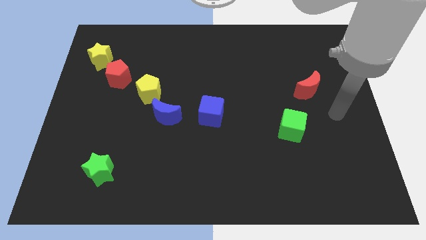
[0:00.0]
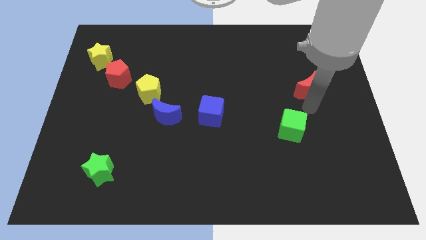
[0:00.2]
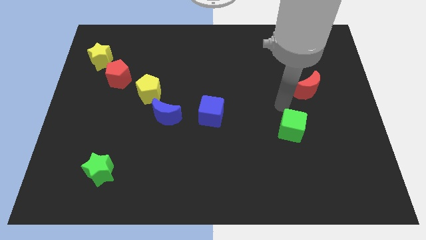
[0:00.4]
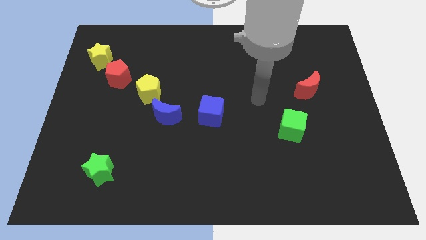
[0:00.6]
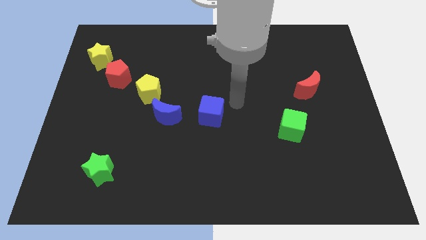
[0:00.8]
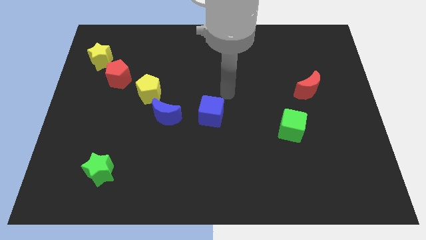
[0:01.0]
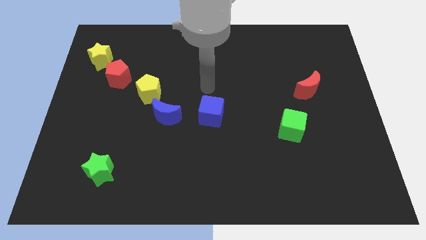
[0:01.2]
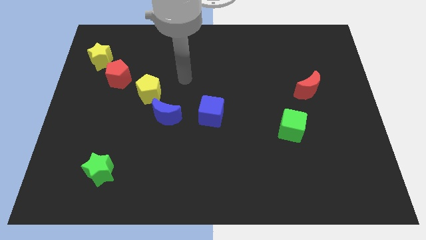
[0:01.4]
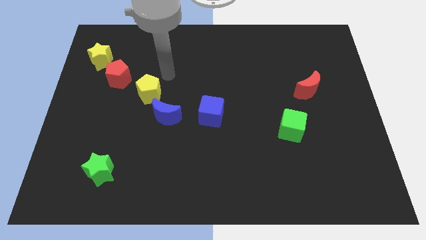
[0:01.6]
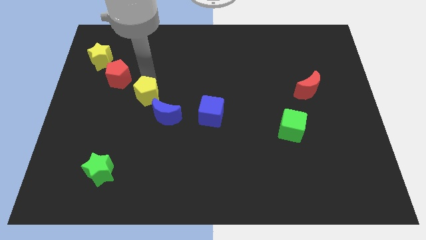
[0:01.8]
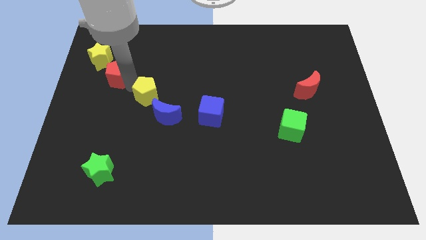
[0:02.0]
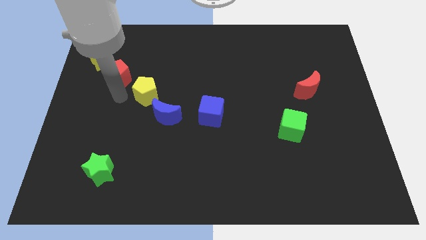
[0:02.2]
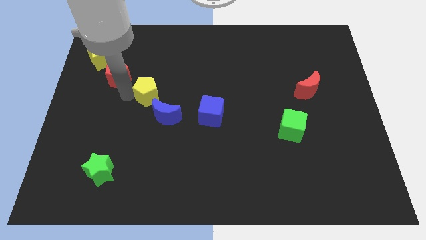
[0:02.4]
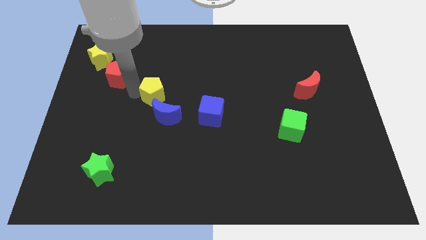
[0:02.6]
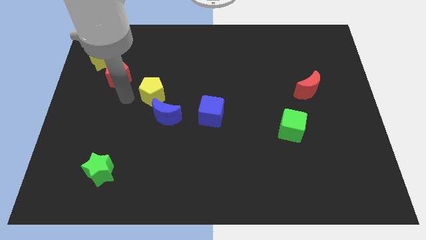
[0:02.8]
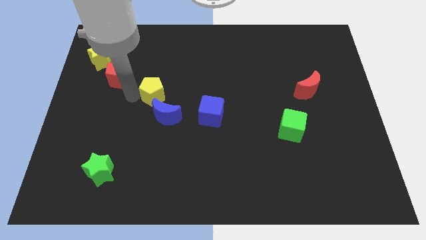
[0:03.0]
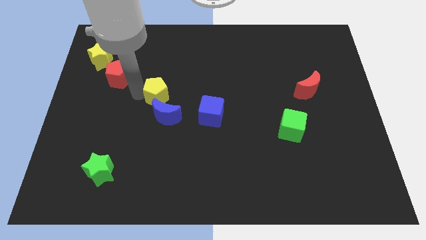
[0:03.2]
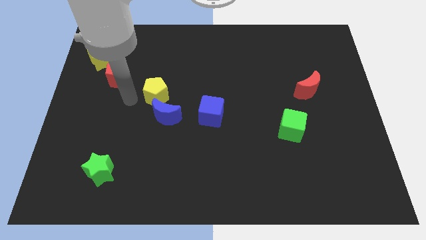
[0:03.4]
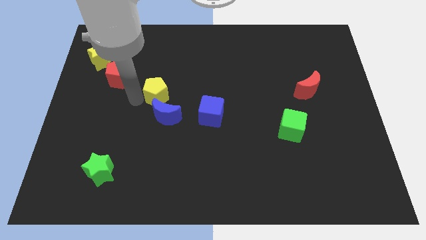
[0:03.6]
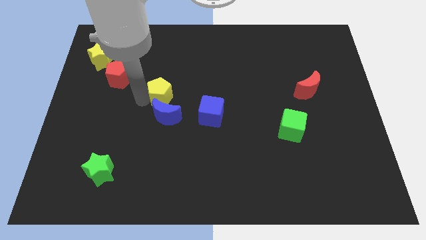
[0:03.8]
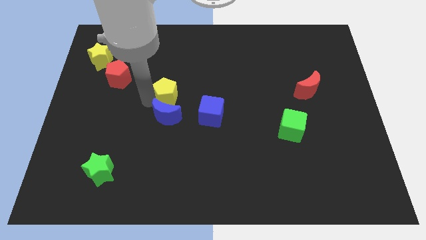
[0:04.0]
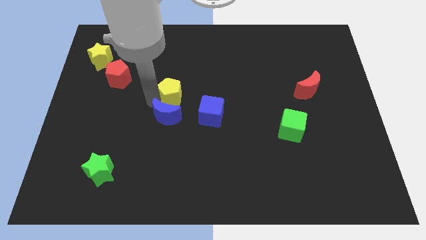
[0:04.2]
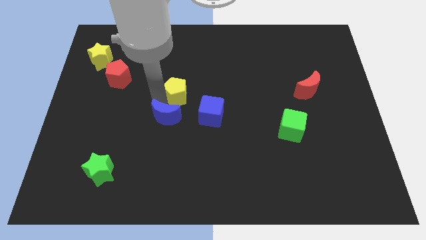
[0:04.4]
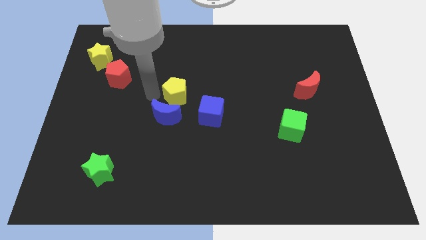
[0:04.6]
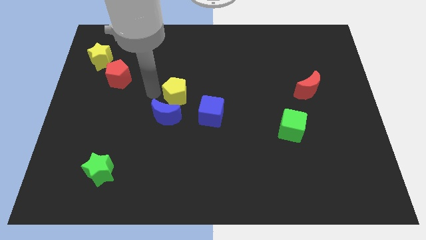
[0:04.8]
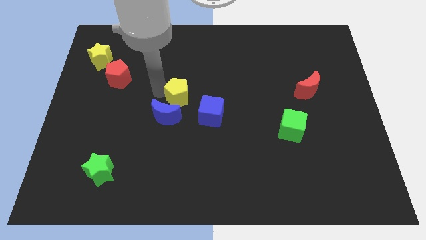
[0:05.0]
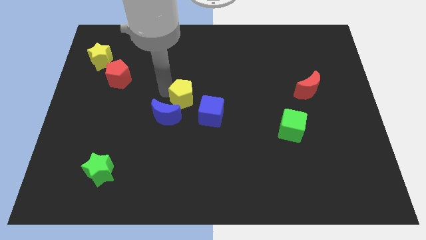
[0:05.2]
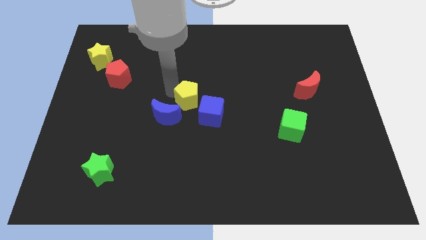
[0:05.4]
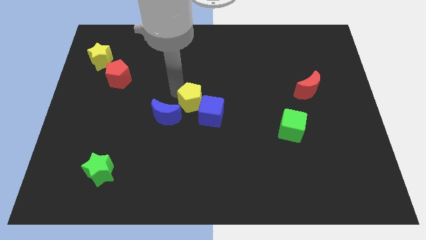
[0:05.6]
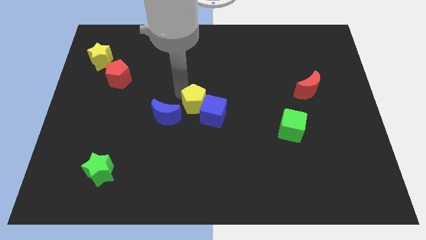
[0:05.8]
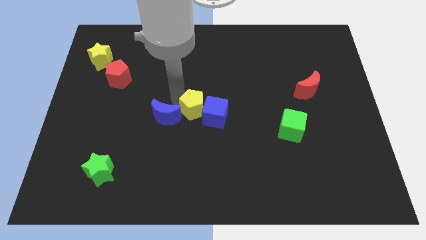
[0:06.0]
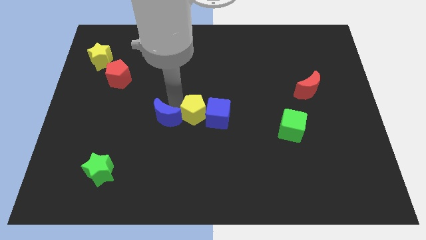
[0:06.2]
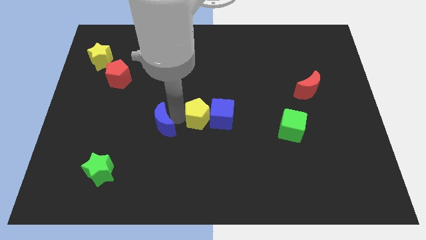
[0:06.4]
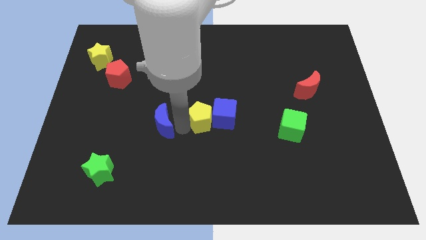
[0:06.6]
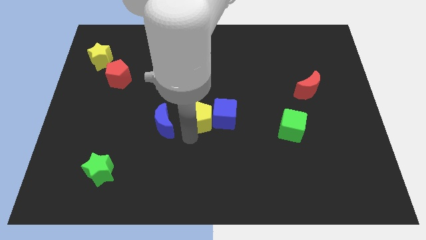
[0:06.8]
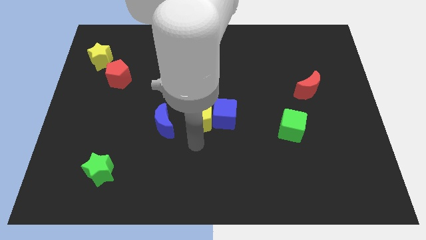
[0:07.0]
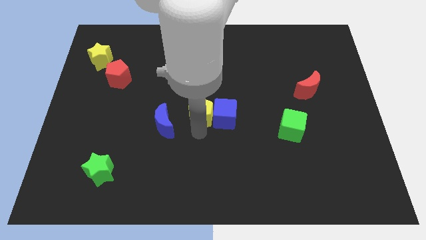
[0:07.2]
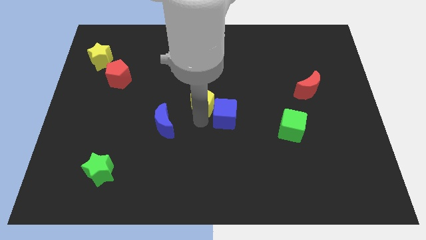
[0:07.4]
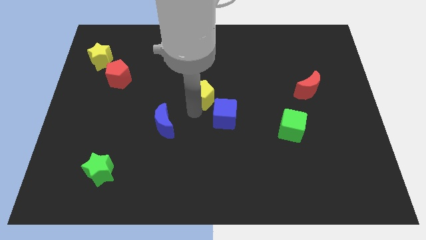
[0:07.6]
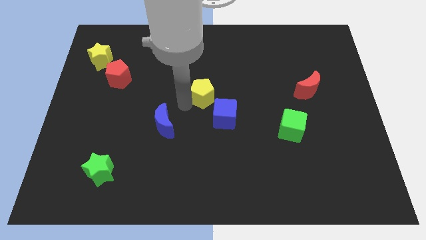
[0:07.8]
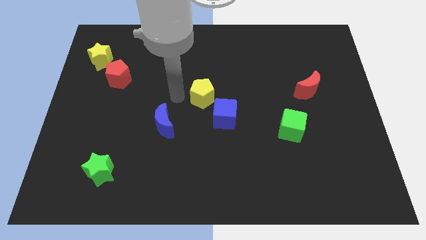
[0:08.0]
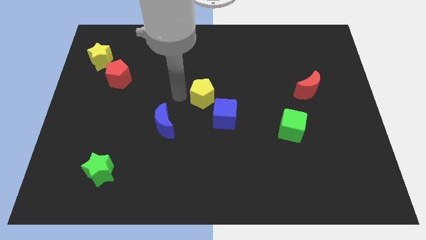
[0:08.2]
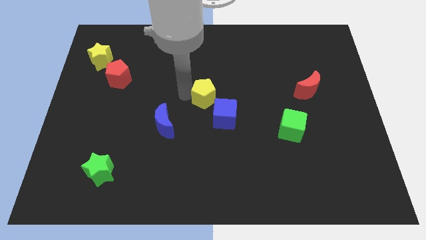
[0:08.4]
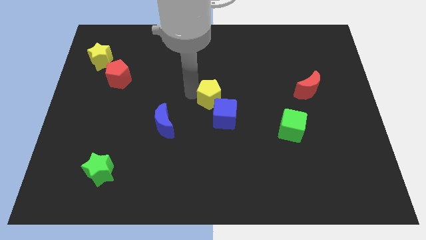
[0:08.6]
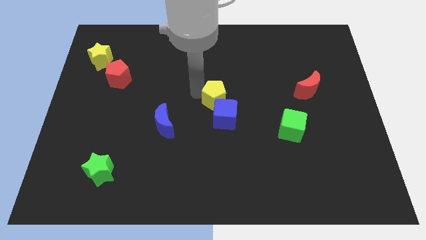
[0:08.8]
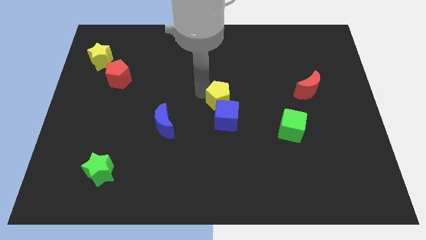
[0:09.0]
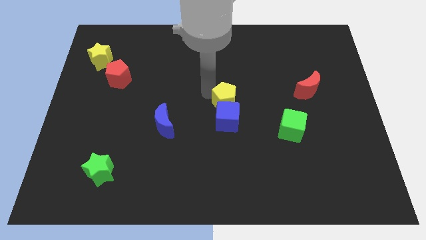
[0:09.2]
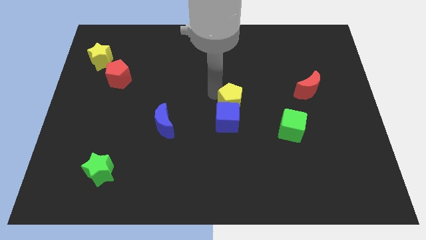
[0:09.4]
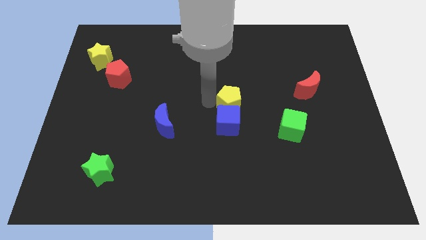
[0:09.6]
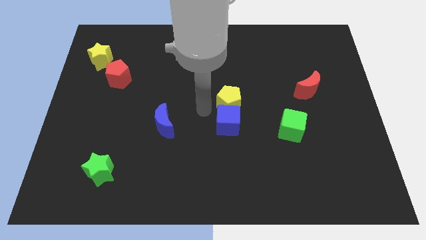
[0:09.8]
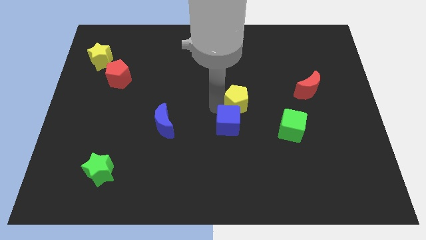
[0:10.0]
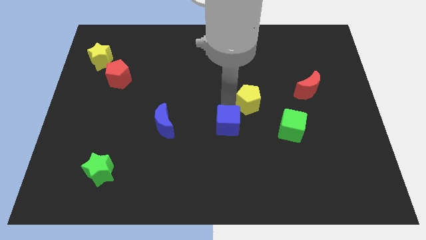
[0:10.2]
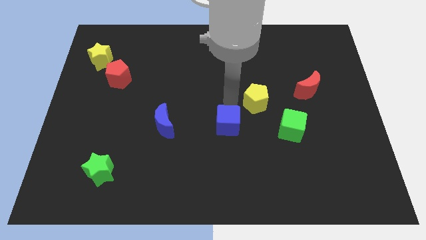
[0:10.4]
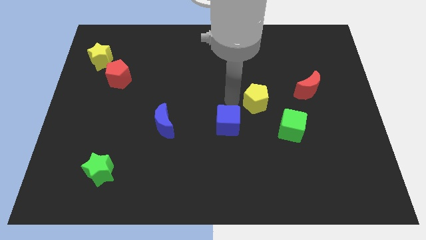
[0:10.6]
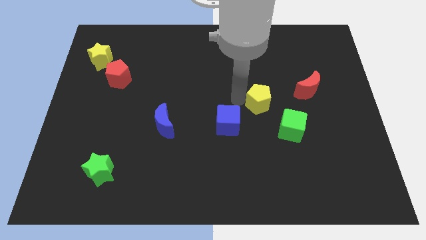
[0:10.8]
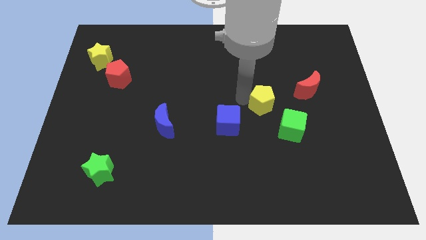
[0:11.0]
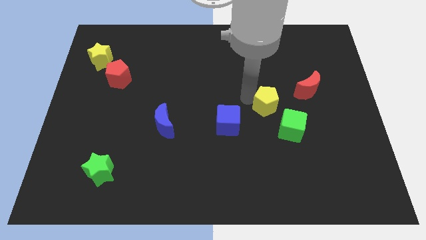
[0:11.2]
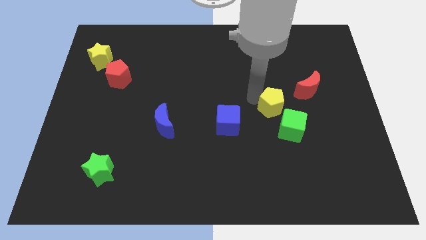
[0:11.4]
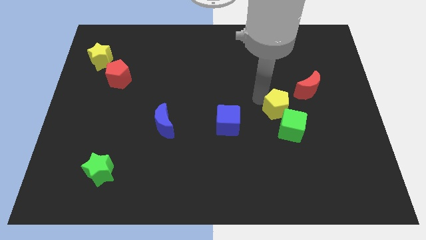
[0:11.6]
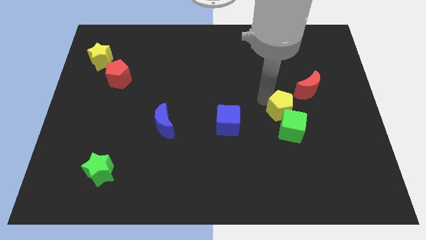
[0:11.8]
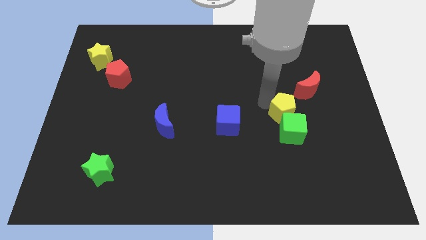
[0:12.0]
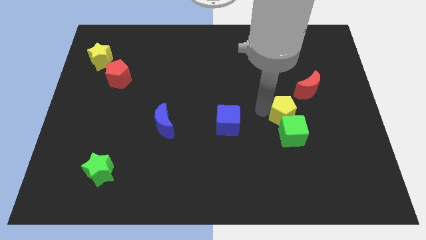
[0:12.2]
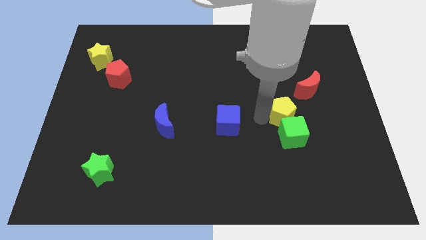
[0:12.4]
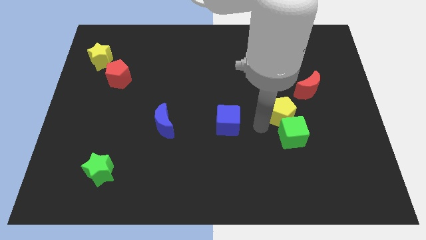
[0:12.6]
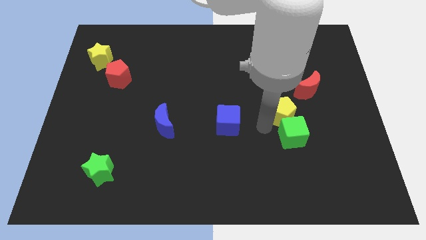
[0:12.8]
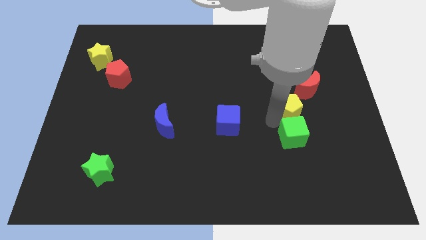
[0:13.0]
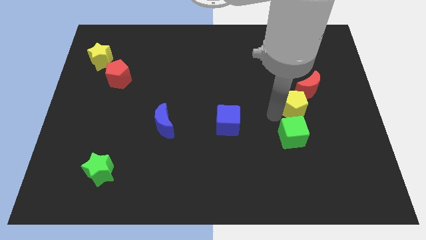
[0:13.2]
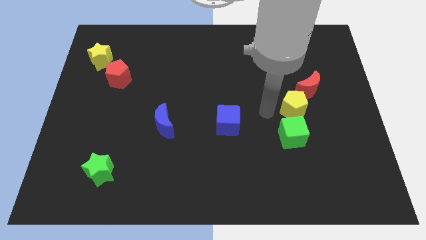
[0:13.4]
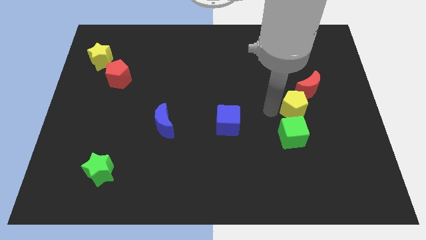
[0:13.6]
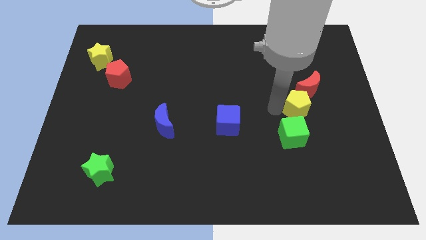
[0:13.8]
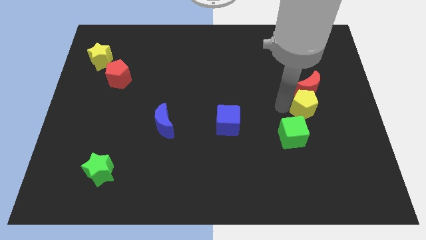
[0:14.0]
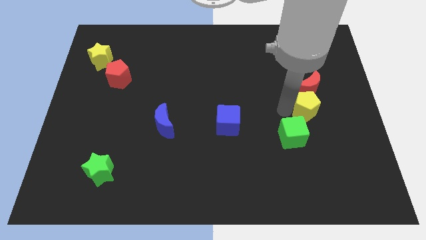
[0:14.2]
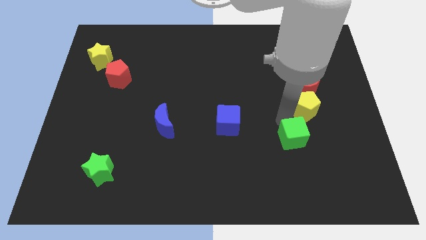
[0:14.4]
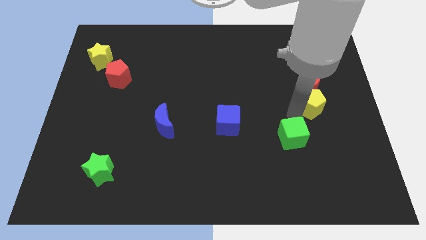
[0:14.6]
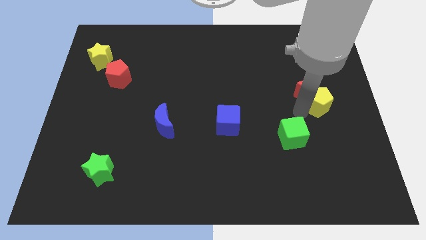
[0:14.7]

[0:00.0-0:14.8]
push the yellow pentagon to the right side

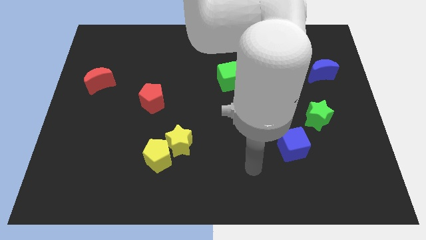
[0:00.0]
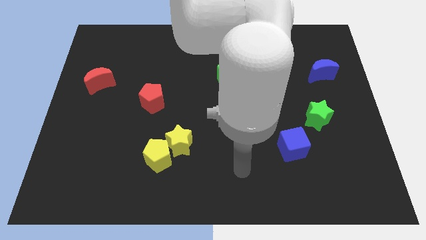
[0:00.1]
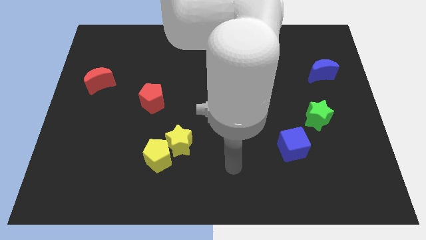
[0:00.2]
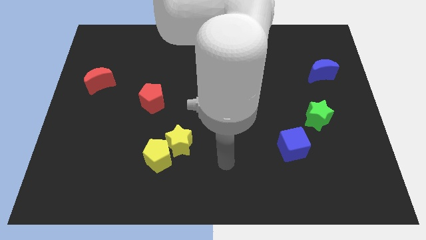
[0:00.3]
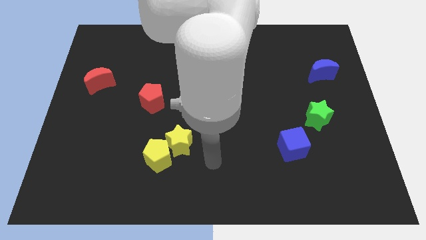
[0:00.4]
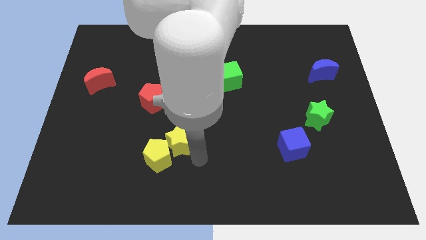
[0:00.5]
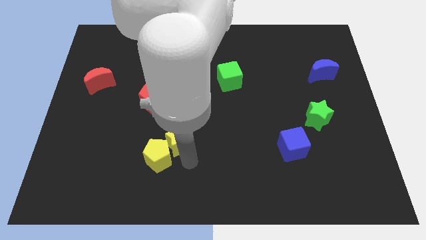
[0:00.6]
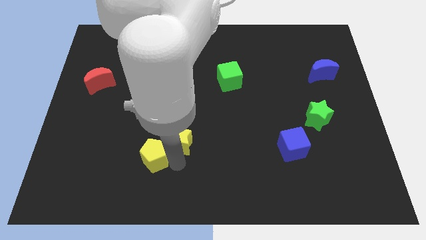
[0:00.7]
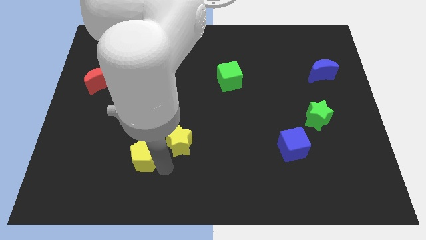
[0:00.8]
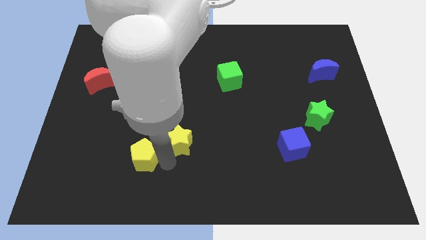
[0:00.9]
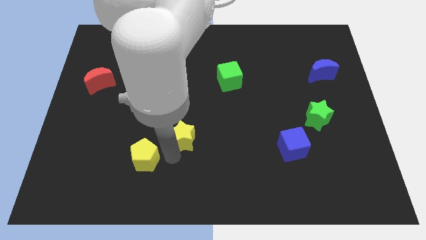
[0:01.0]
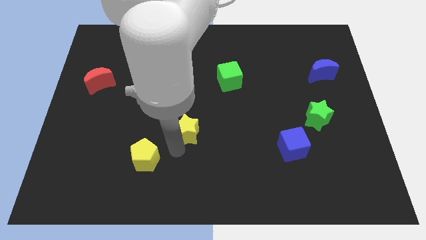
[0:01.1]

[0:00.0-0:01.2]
slide the yellow star to the center of the board
